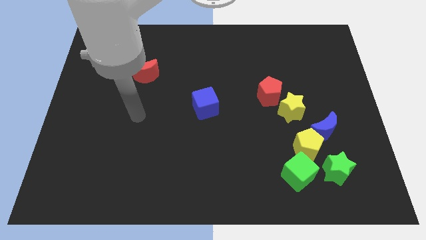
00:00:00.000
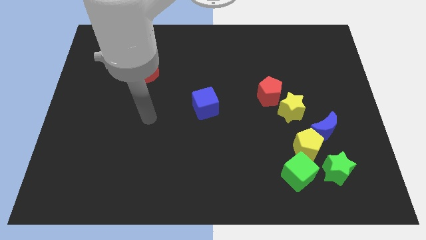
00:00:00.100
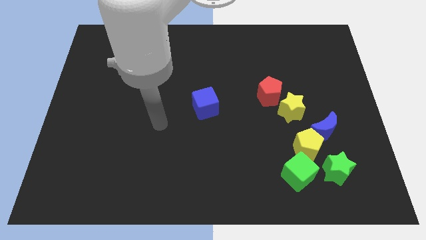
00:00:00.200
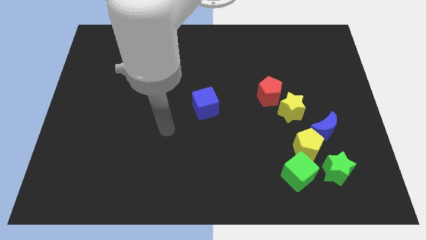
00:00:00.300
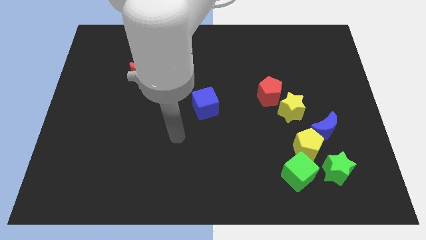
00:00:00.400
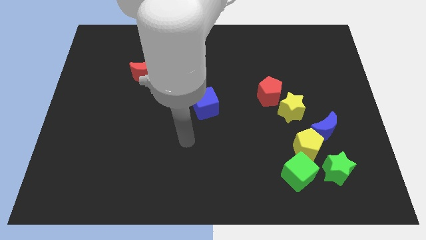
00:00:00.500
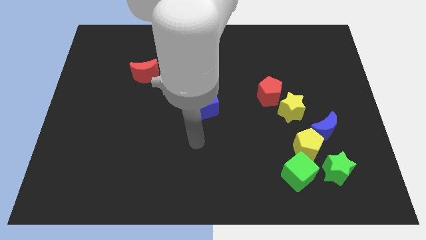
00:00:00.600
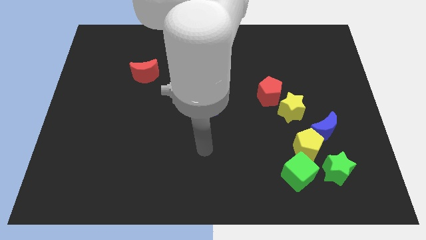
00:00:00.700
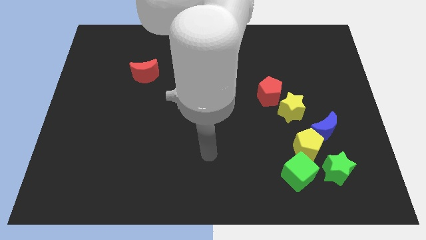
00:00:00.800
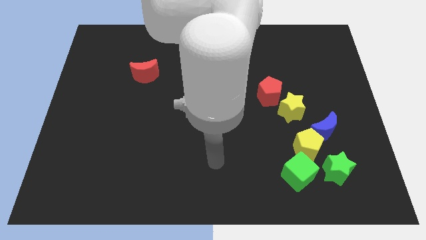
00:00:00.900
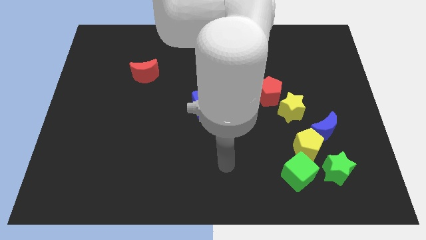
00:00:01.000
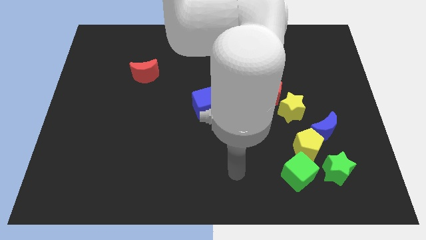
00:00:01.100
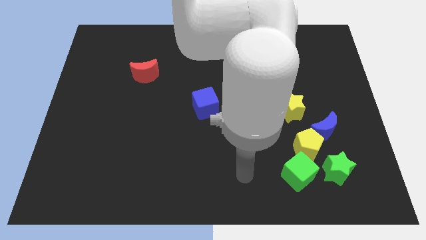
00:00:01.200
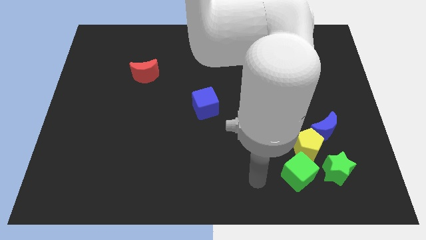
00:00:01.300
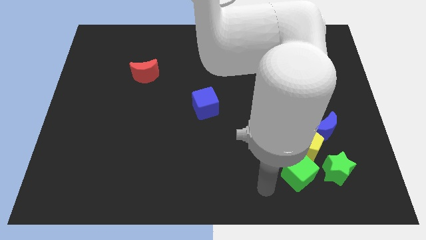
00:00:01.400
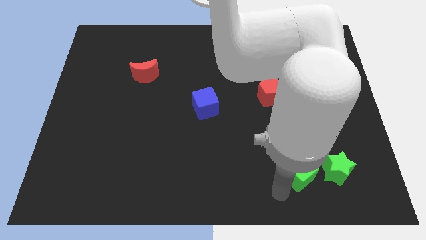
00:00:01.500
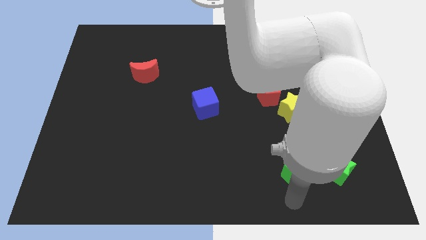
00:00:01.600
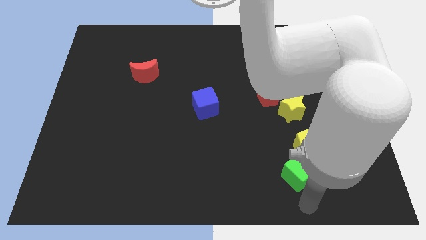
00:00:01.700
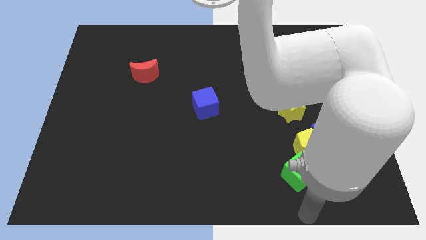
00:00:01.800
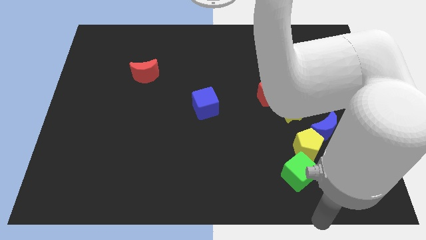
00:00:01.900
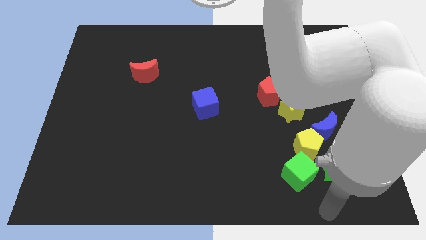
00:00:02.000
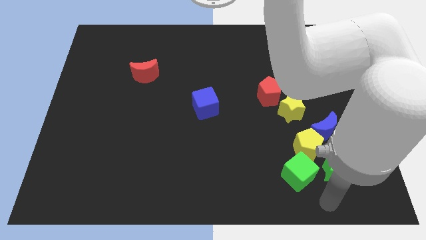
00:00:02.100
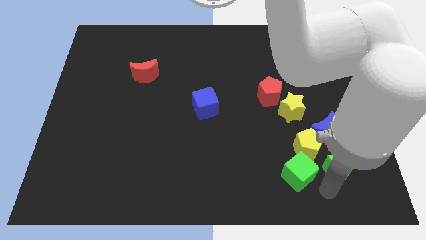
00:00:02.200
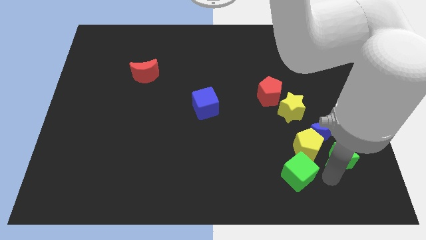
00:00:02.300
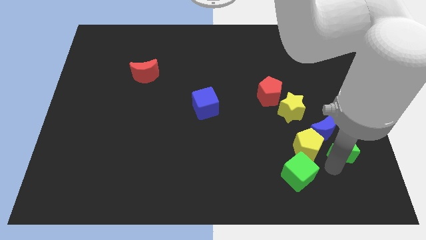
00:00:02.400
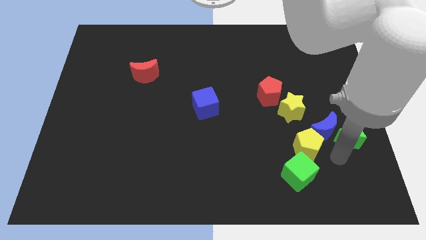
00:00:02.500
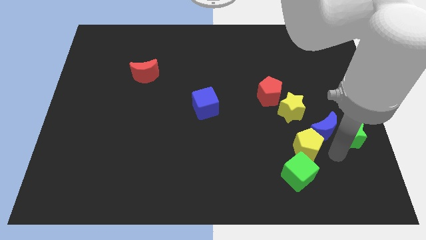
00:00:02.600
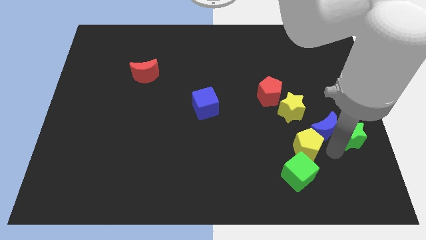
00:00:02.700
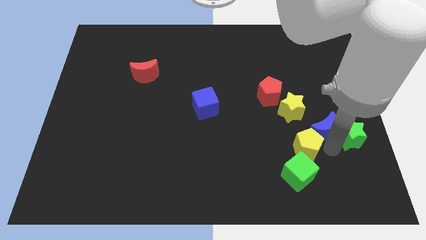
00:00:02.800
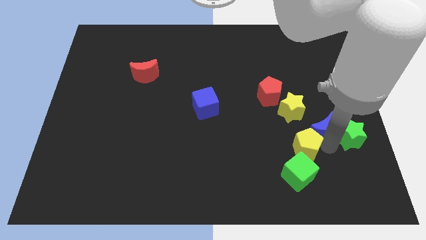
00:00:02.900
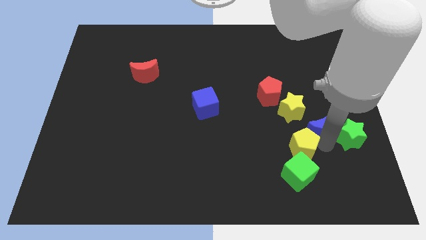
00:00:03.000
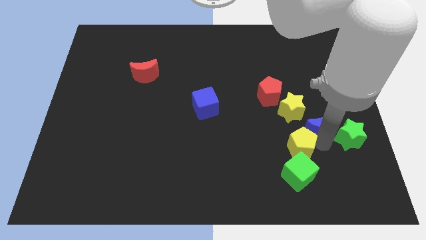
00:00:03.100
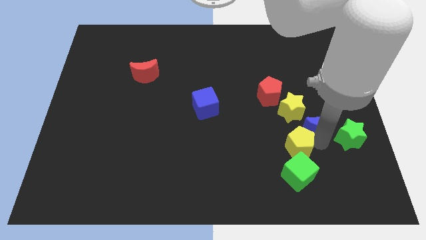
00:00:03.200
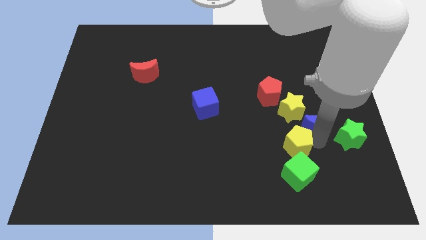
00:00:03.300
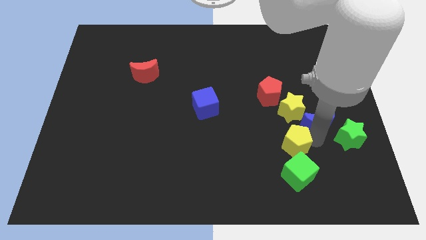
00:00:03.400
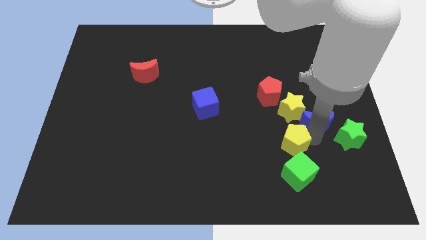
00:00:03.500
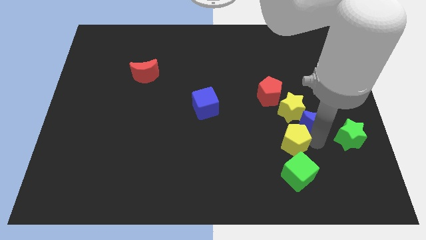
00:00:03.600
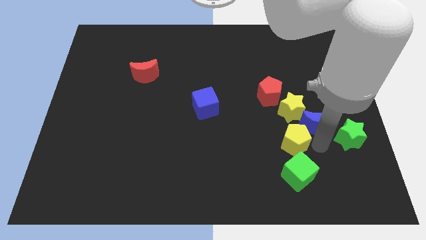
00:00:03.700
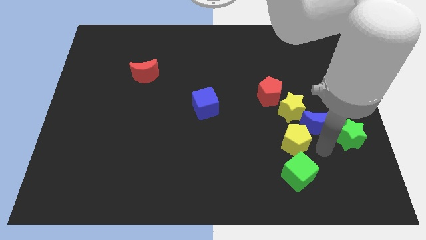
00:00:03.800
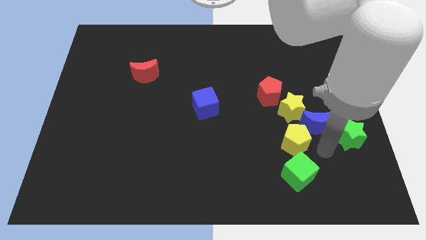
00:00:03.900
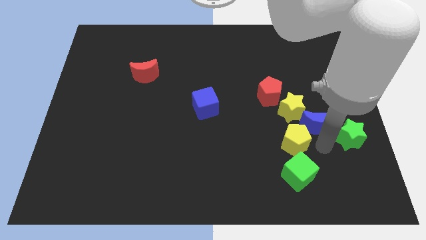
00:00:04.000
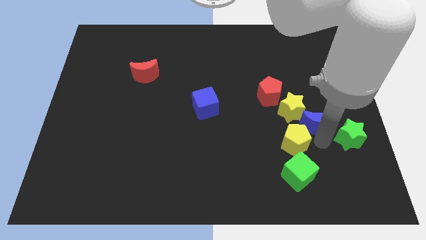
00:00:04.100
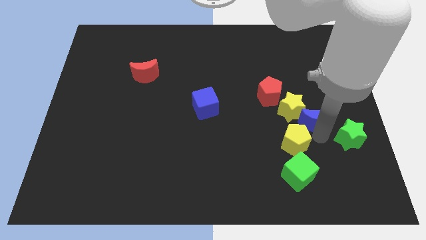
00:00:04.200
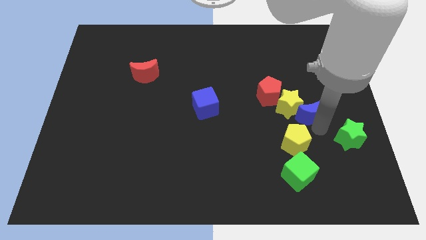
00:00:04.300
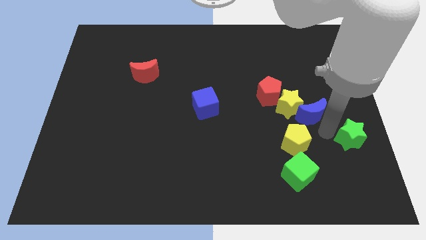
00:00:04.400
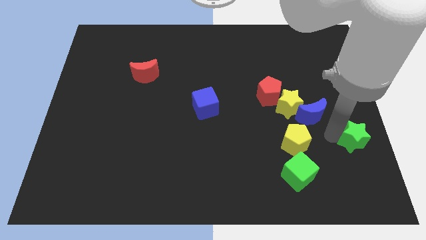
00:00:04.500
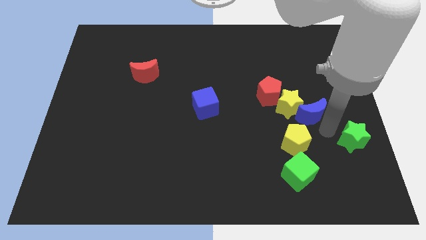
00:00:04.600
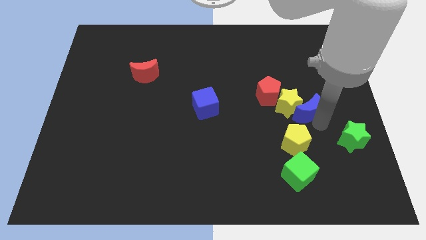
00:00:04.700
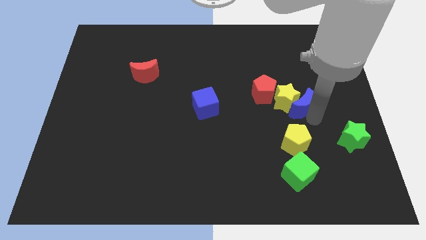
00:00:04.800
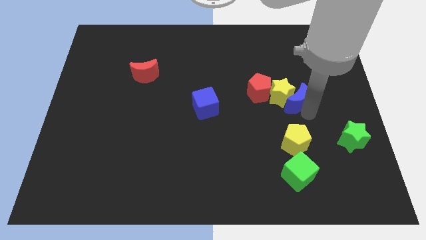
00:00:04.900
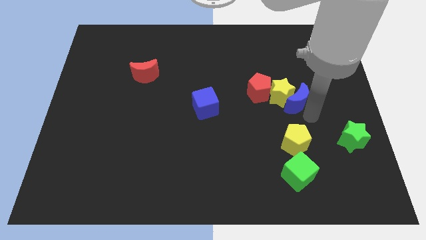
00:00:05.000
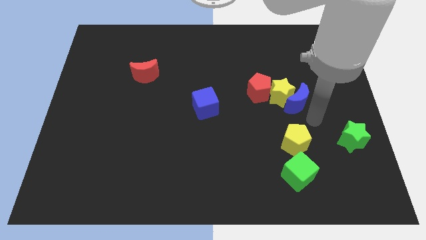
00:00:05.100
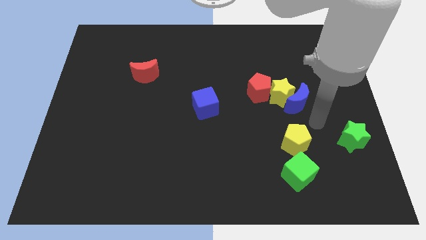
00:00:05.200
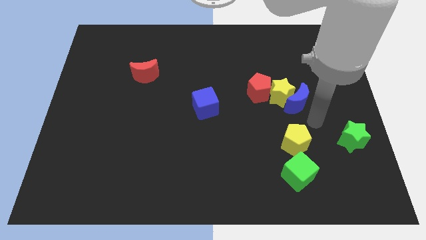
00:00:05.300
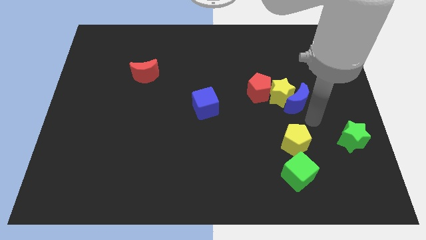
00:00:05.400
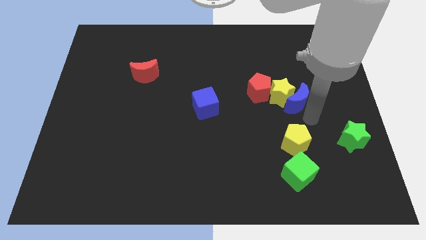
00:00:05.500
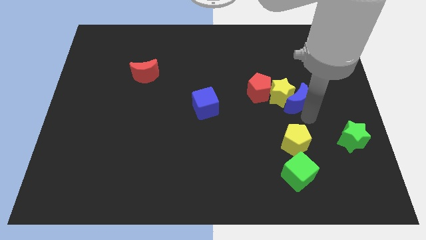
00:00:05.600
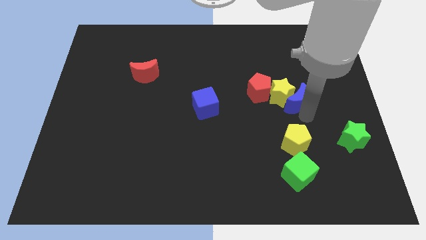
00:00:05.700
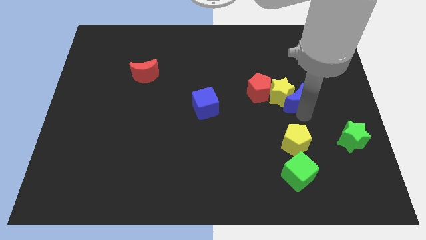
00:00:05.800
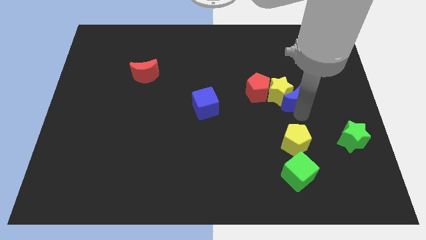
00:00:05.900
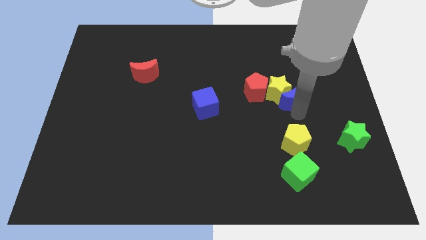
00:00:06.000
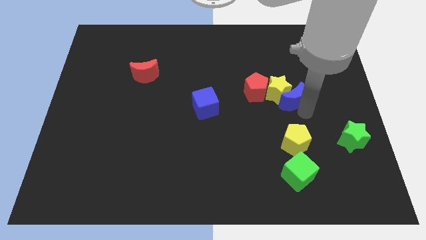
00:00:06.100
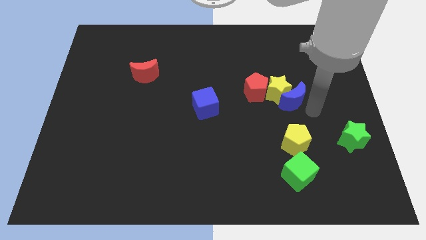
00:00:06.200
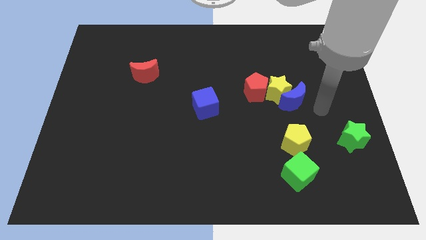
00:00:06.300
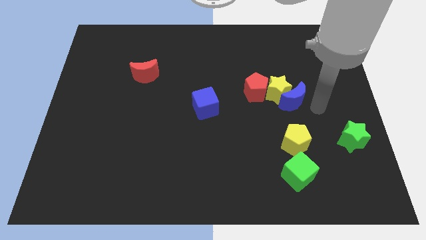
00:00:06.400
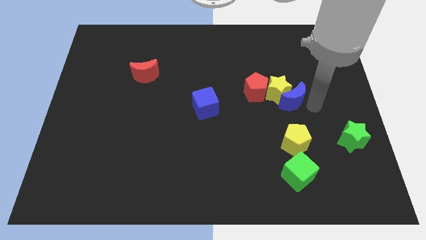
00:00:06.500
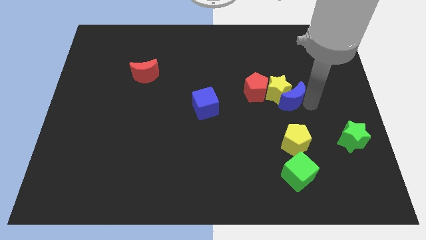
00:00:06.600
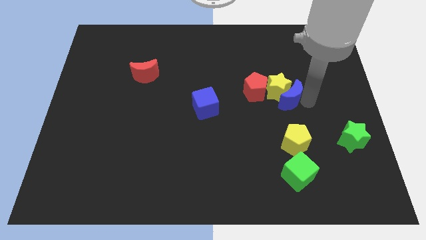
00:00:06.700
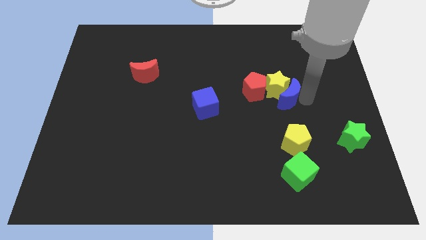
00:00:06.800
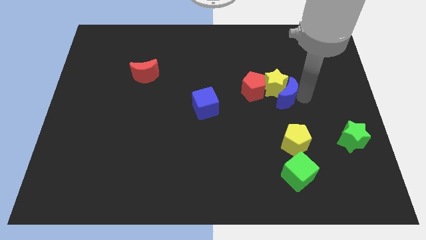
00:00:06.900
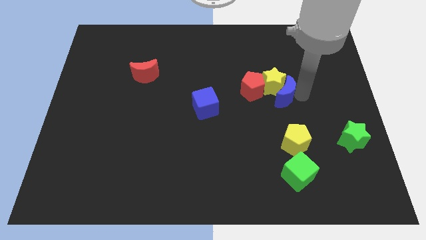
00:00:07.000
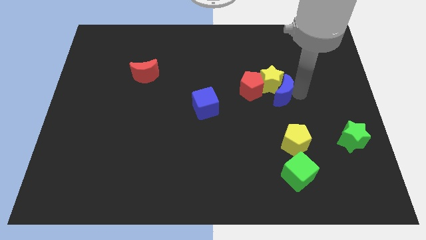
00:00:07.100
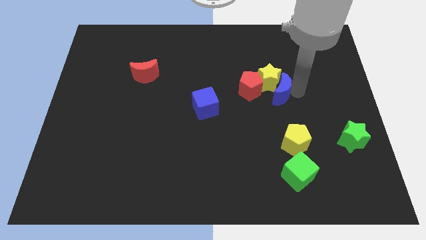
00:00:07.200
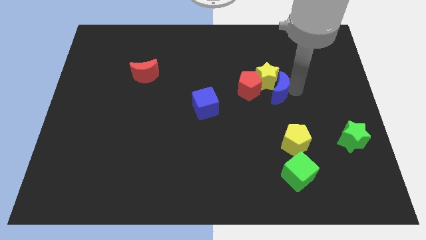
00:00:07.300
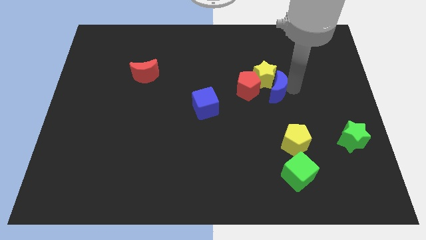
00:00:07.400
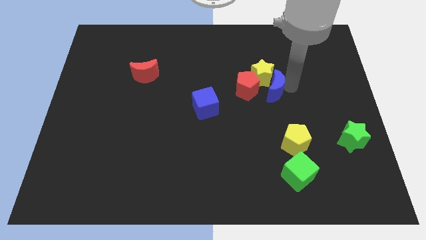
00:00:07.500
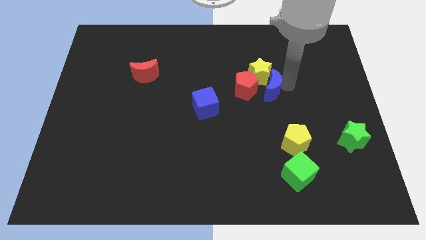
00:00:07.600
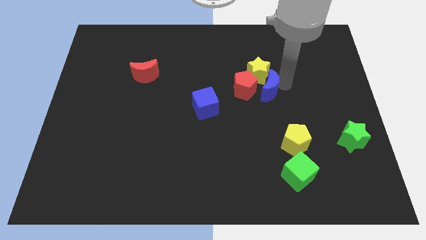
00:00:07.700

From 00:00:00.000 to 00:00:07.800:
move the blue moon close to the red pentagon
